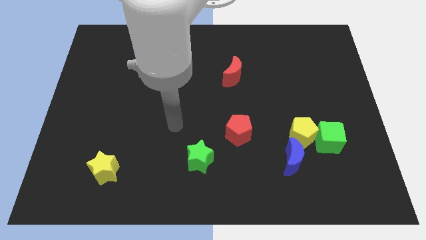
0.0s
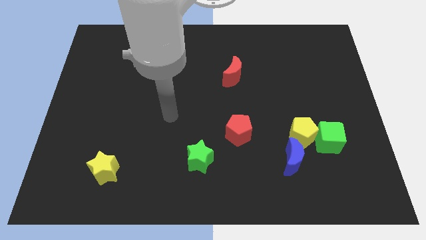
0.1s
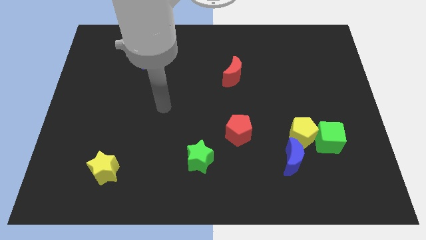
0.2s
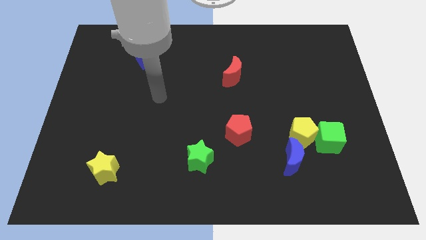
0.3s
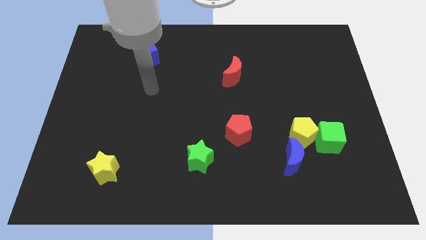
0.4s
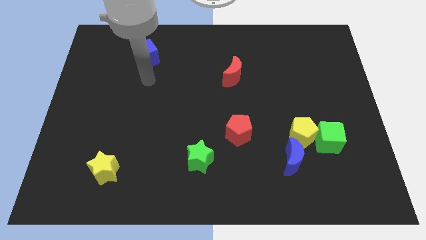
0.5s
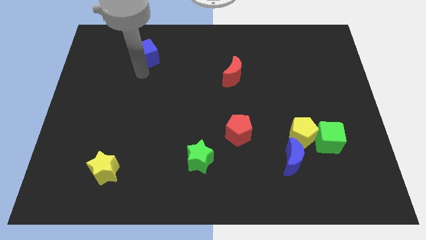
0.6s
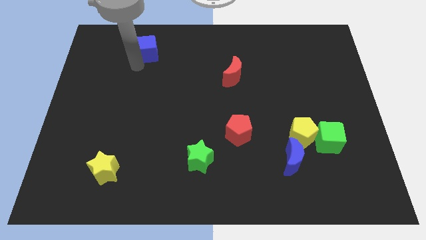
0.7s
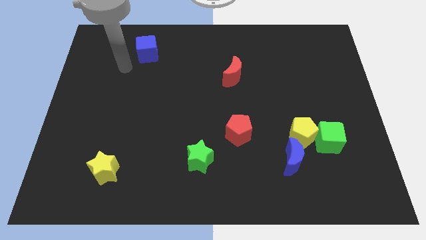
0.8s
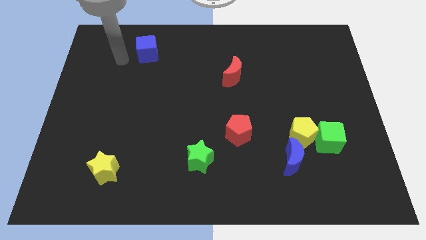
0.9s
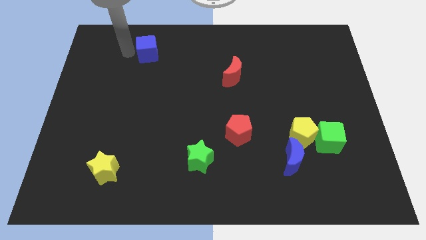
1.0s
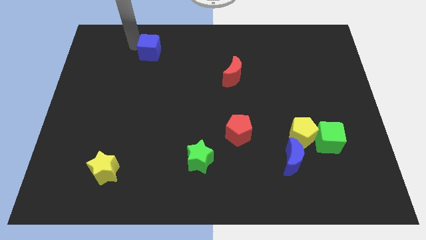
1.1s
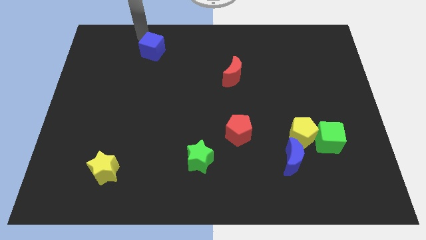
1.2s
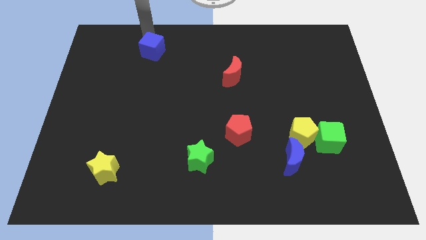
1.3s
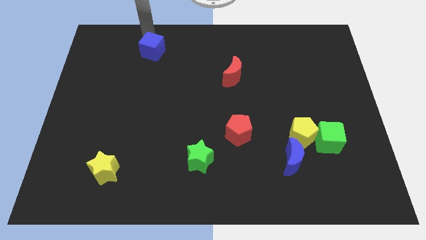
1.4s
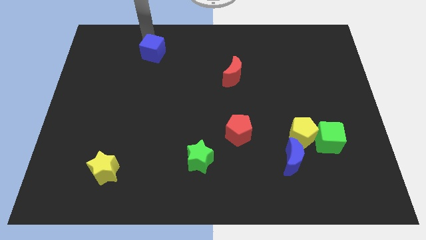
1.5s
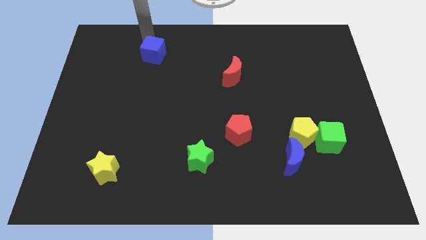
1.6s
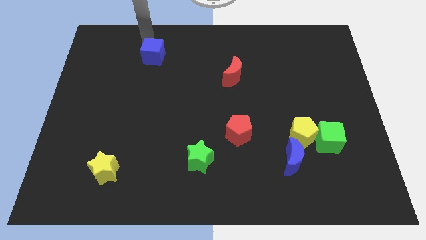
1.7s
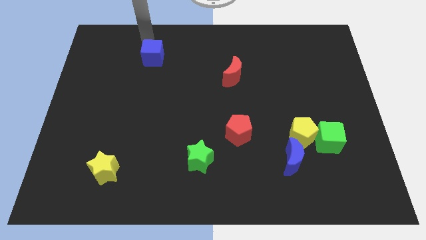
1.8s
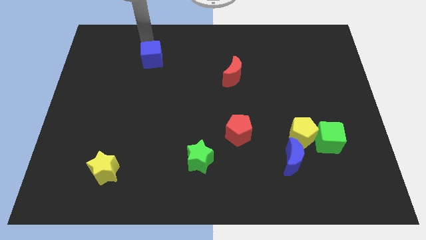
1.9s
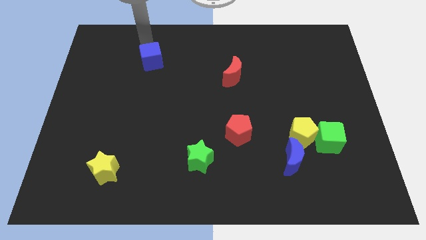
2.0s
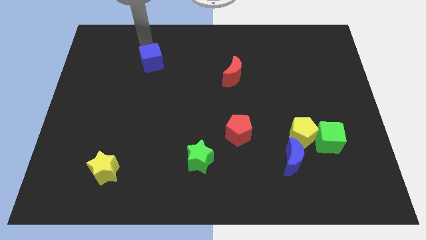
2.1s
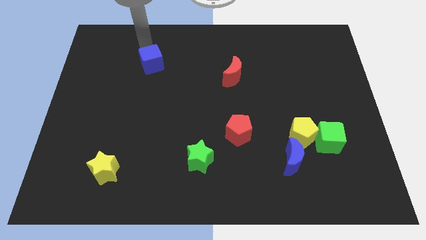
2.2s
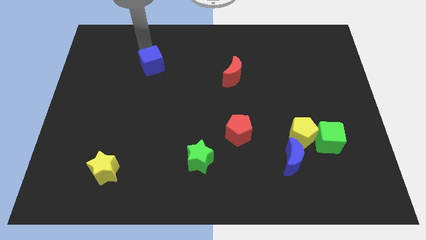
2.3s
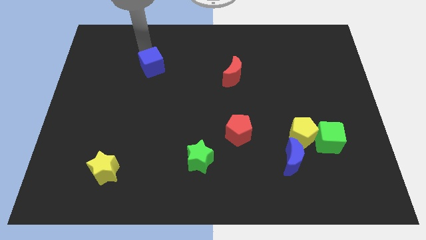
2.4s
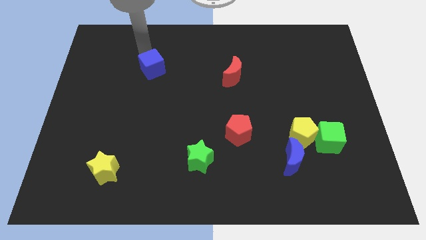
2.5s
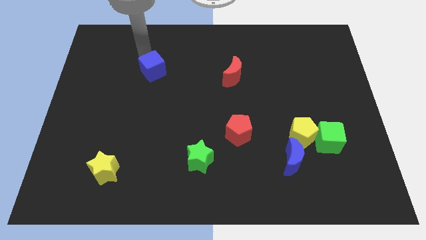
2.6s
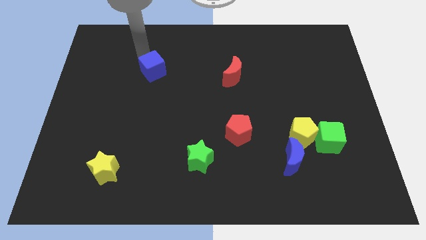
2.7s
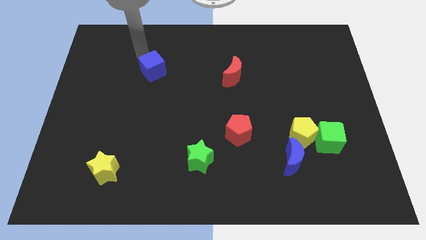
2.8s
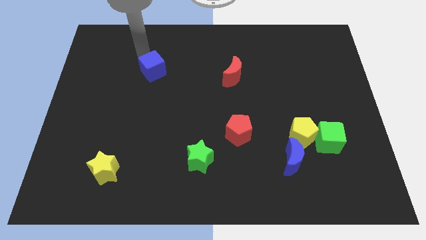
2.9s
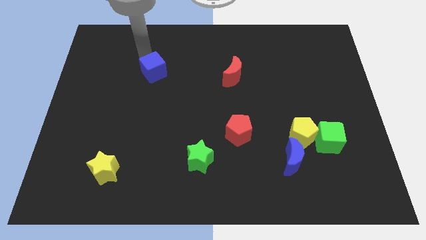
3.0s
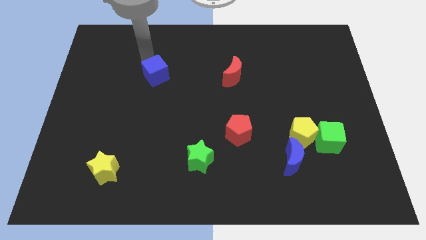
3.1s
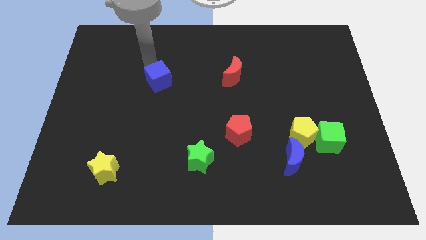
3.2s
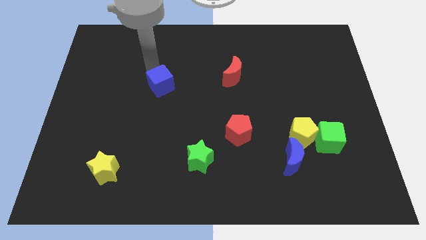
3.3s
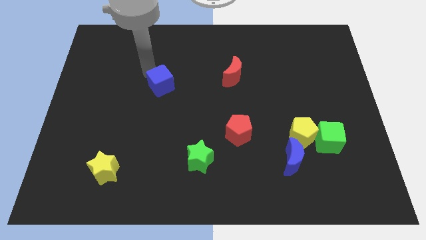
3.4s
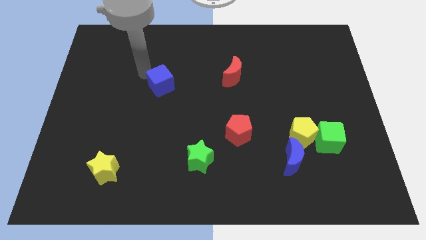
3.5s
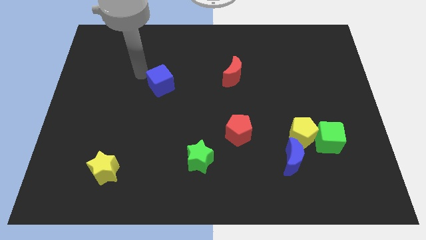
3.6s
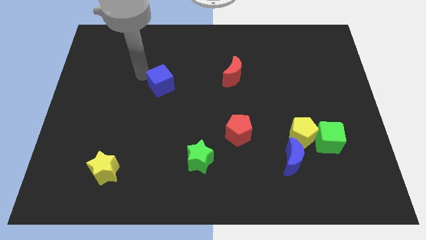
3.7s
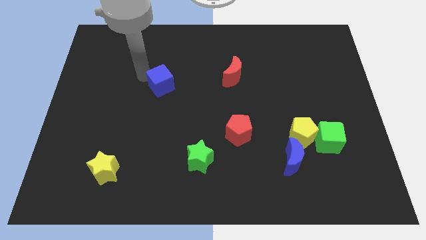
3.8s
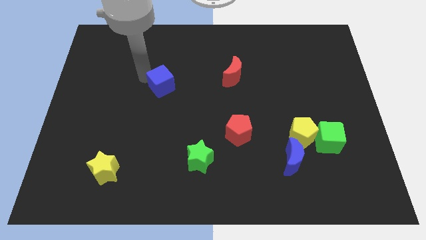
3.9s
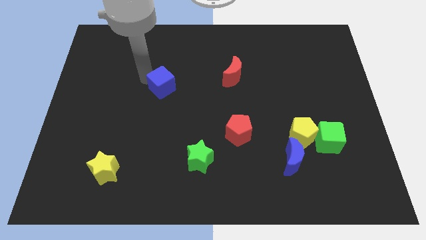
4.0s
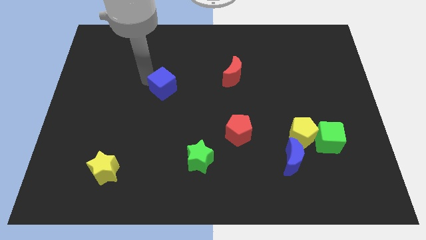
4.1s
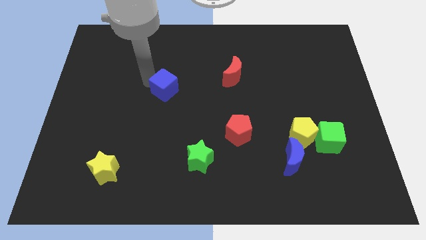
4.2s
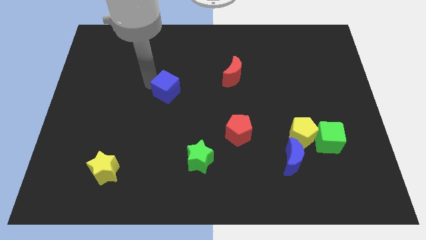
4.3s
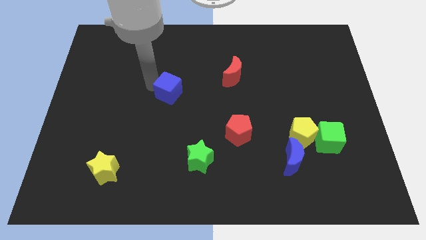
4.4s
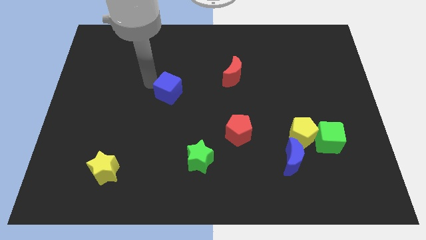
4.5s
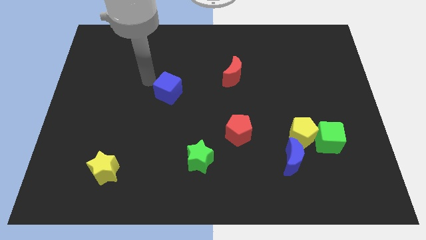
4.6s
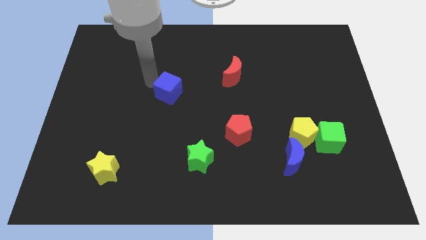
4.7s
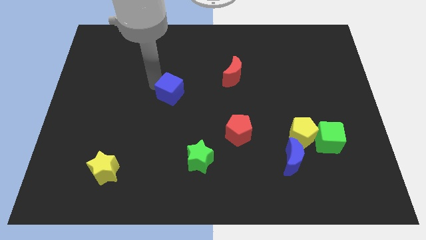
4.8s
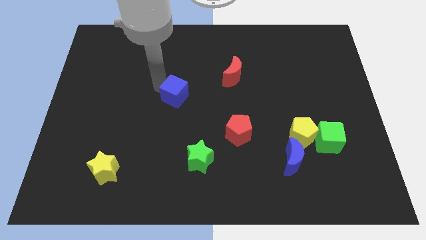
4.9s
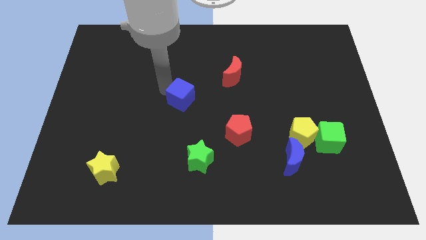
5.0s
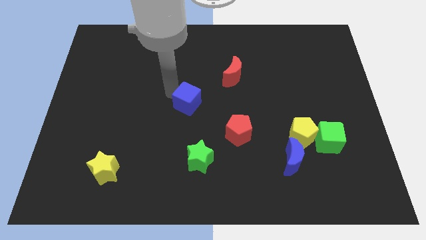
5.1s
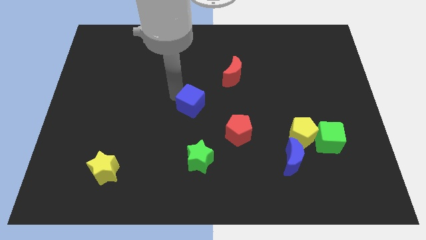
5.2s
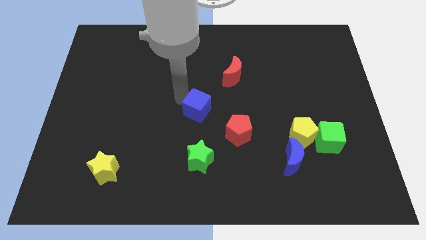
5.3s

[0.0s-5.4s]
move the blue cube diagonally up and to the left of the red pentagon

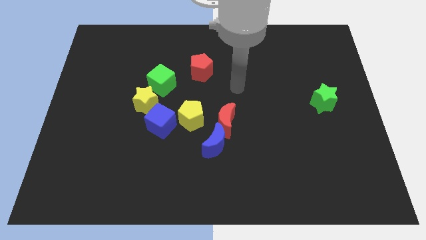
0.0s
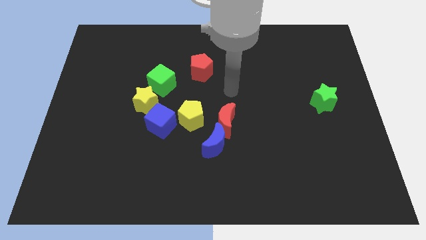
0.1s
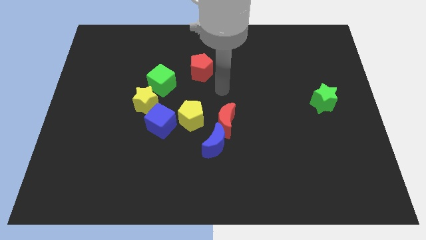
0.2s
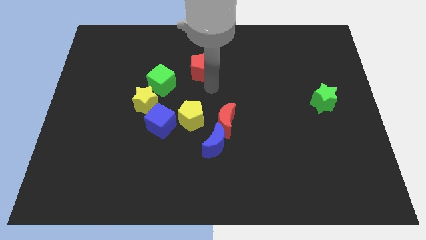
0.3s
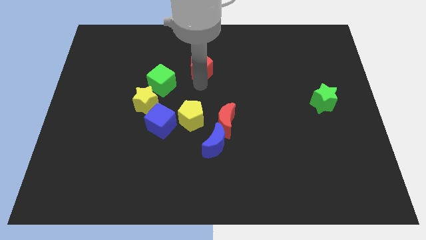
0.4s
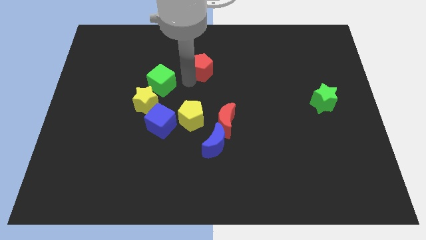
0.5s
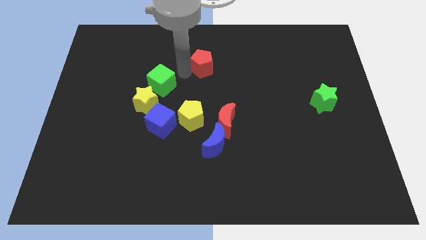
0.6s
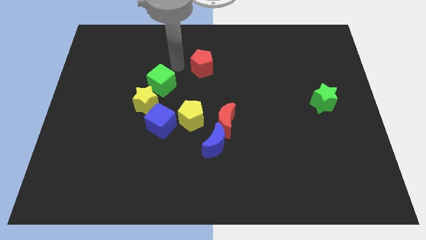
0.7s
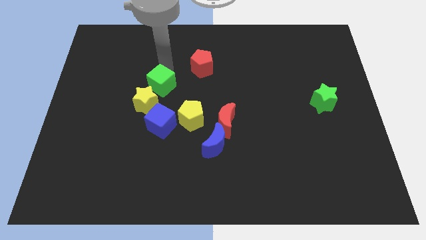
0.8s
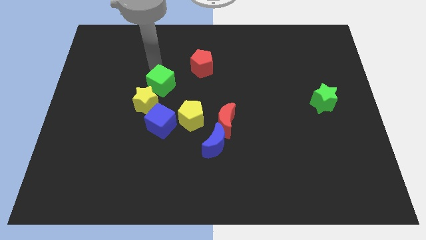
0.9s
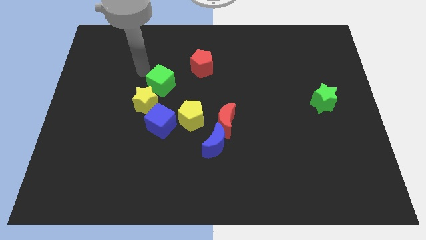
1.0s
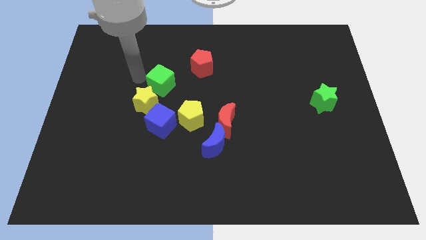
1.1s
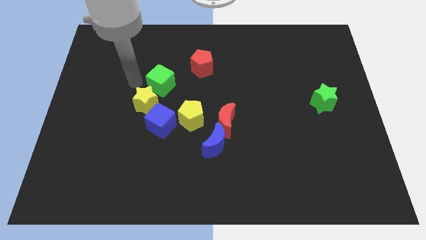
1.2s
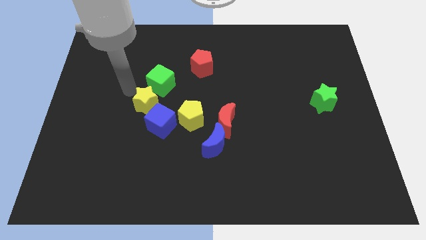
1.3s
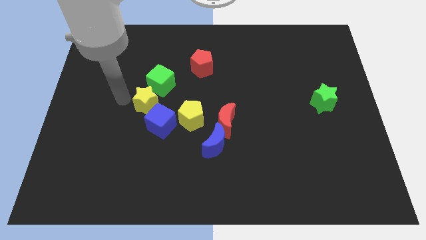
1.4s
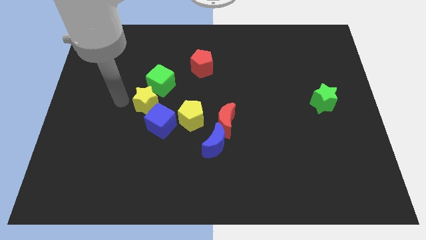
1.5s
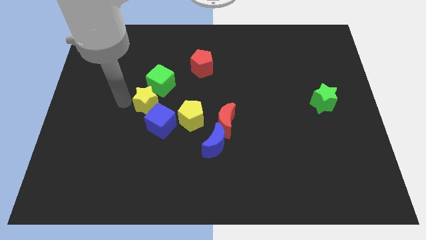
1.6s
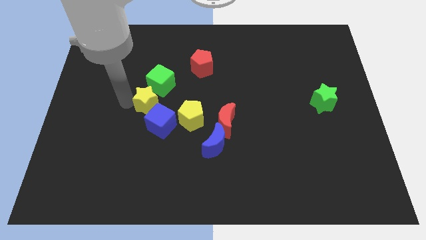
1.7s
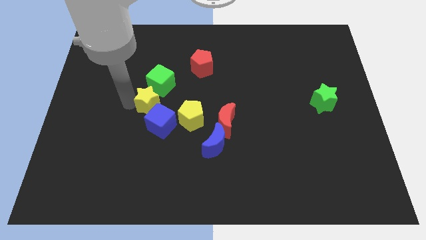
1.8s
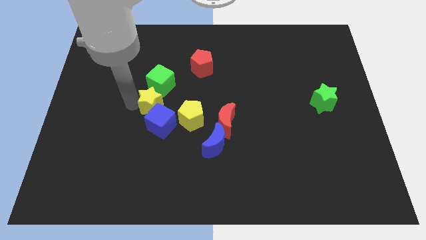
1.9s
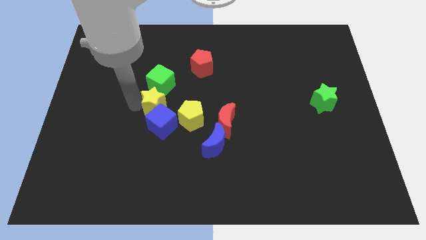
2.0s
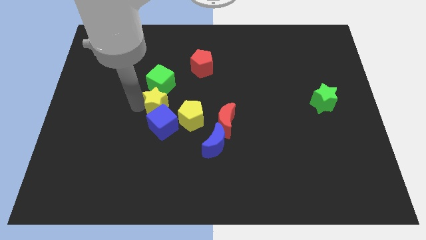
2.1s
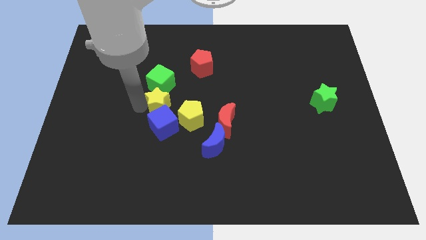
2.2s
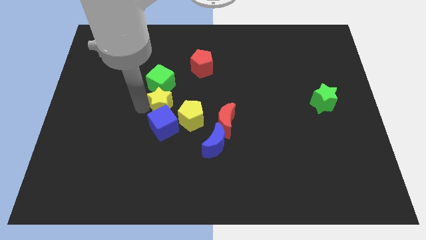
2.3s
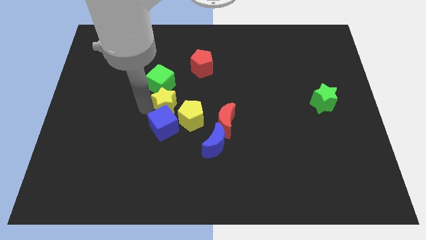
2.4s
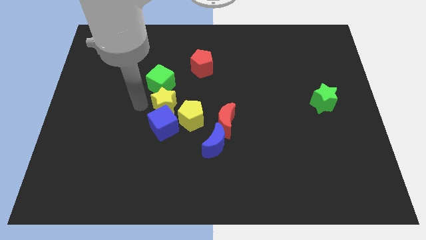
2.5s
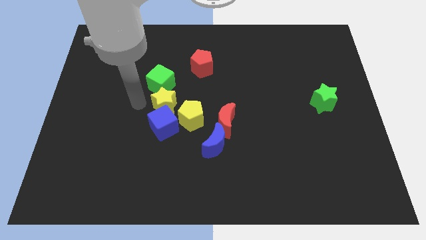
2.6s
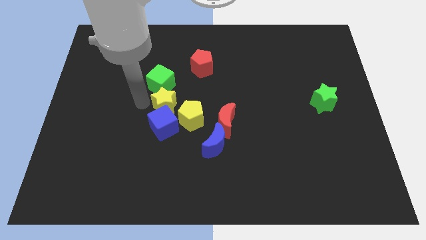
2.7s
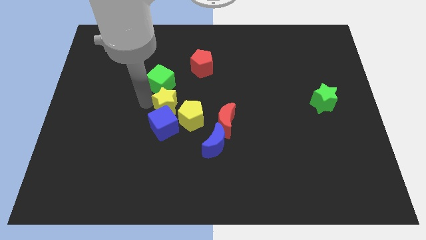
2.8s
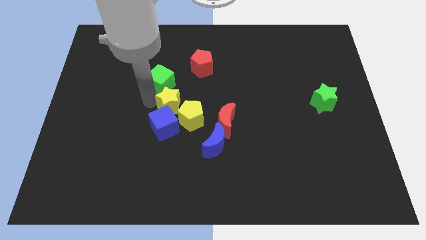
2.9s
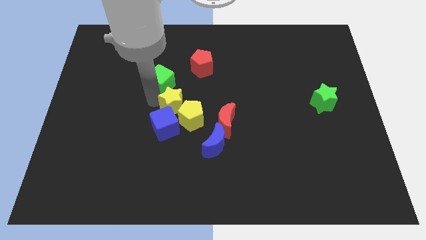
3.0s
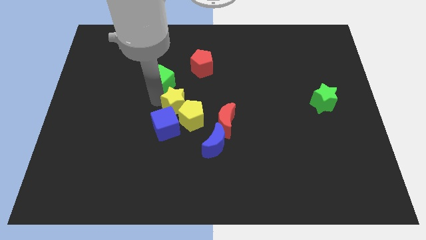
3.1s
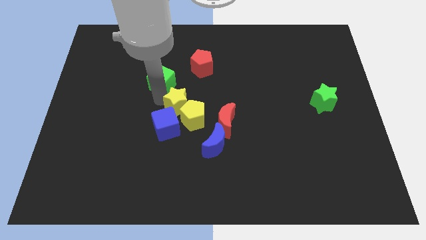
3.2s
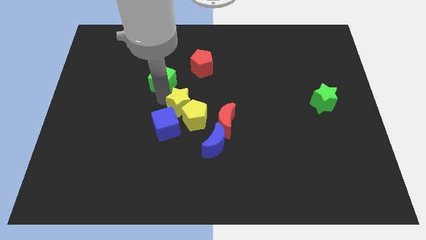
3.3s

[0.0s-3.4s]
slide the yellow star diagonally up and to the left of the red moon
